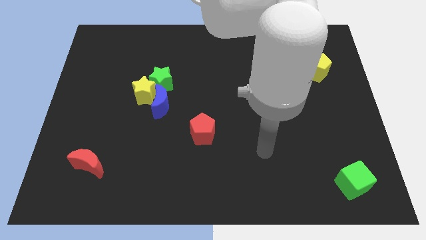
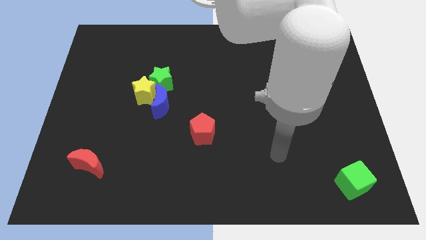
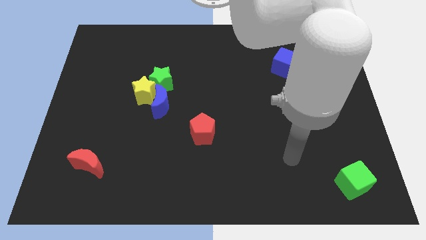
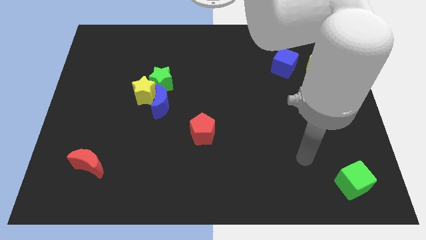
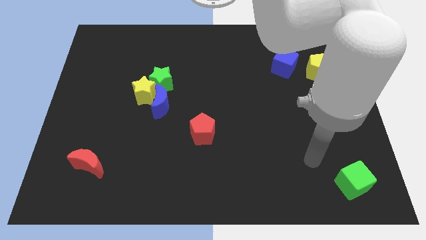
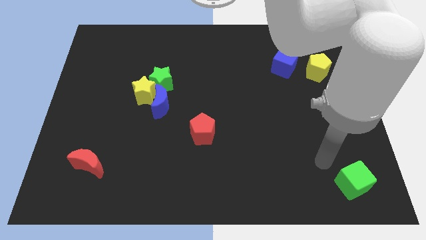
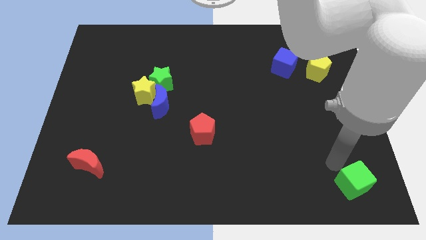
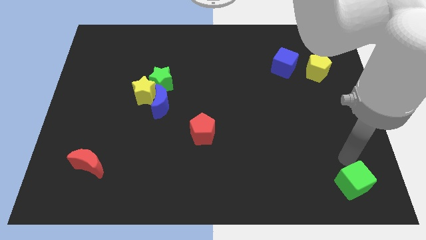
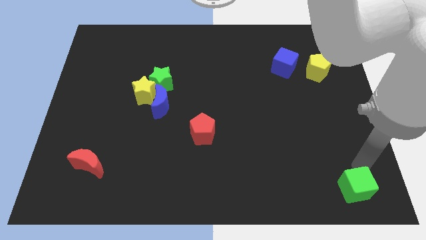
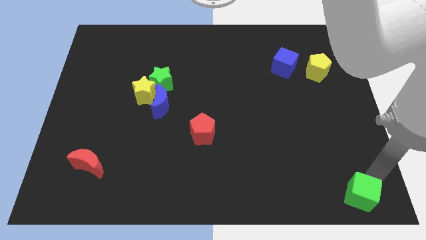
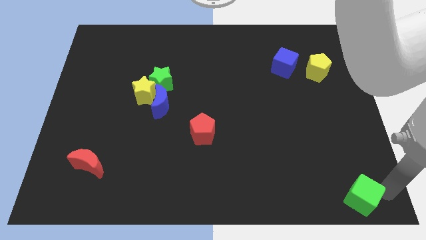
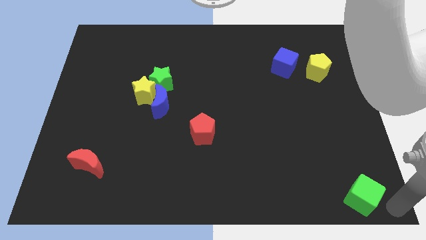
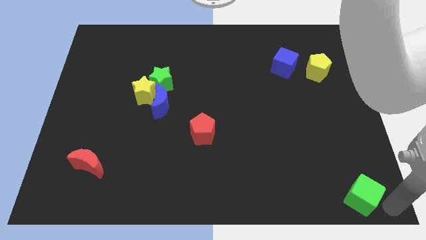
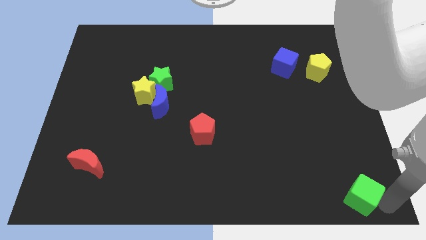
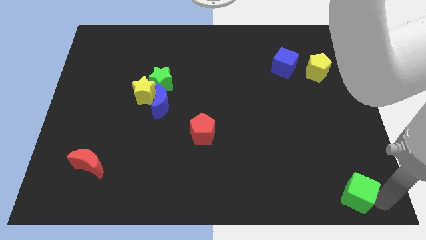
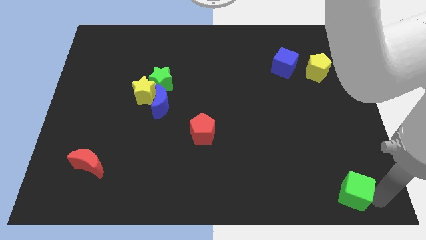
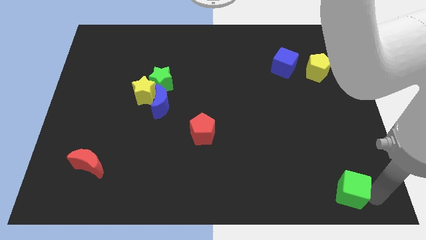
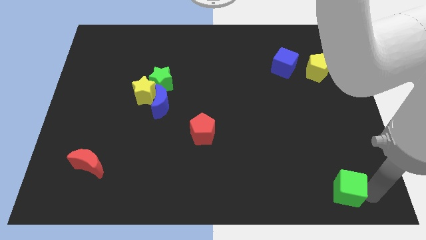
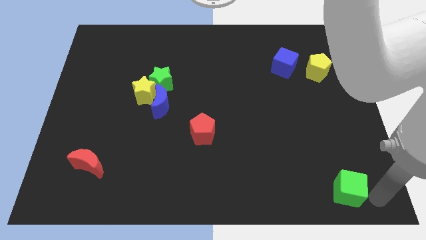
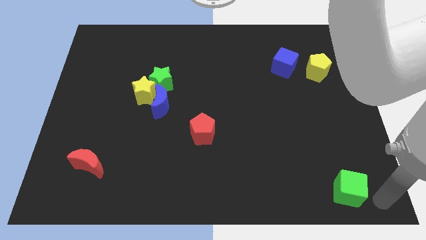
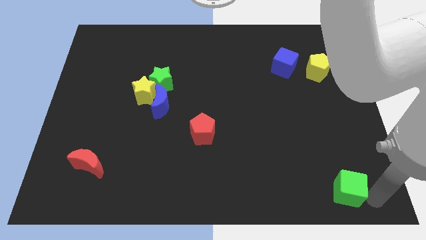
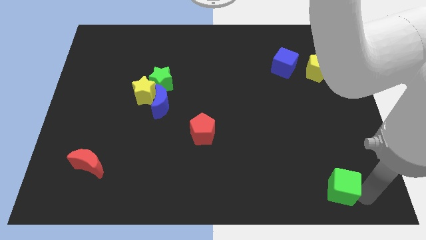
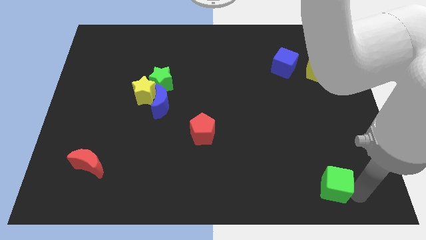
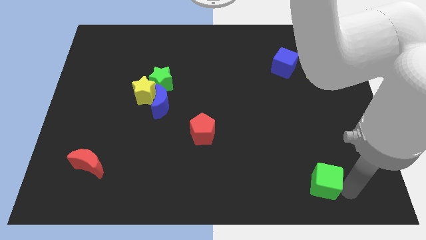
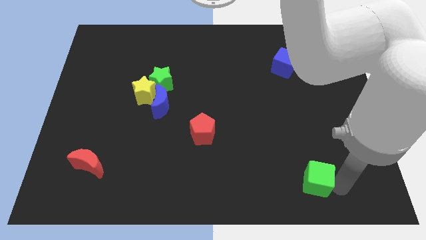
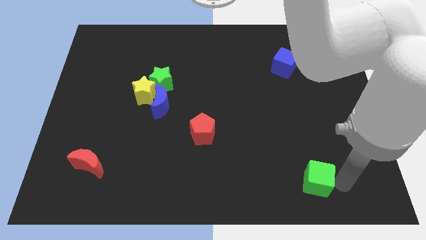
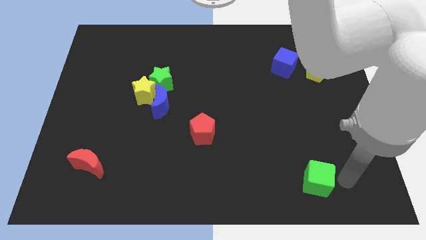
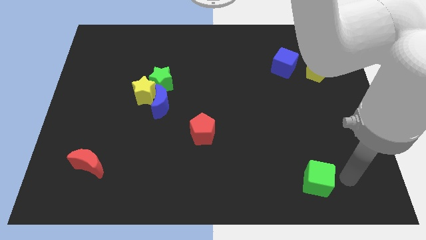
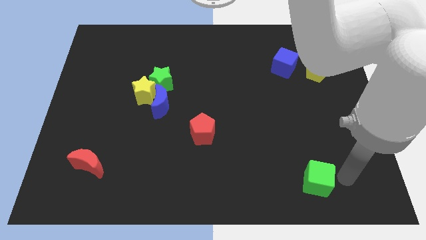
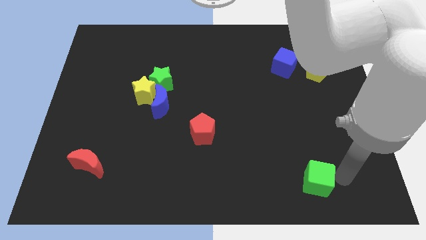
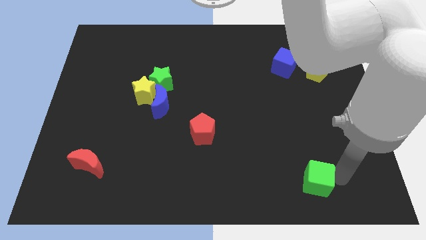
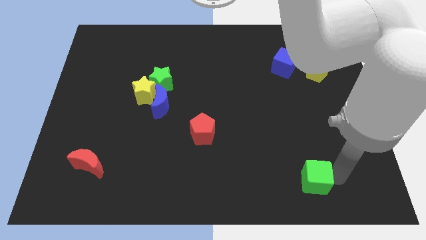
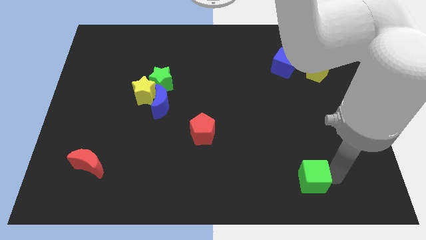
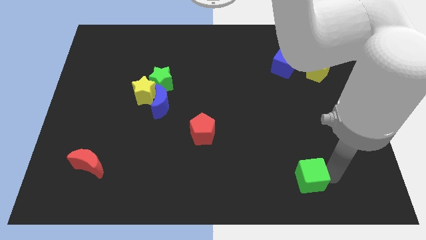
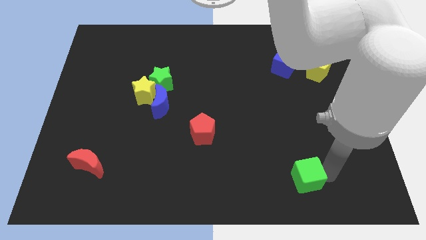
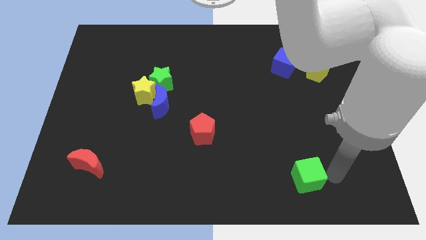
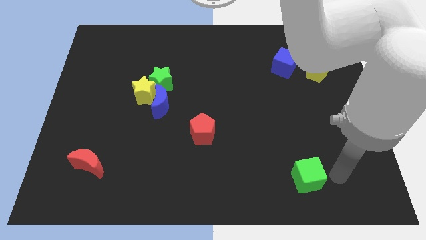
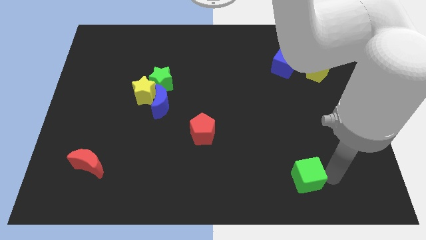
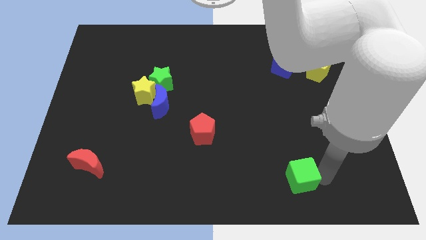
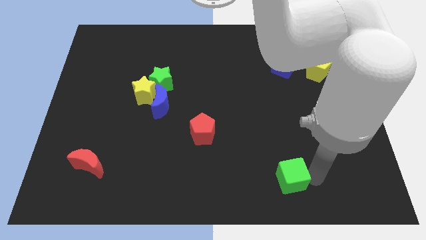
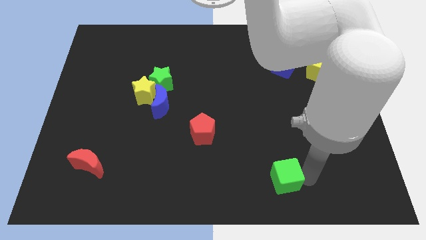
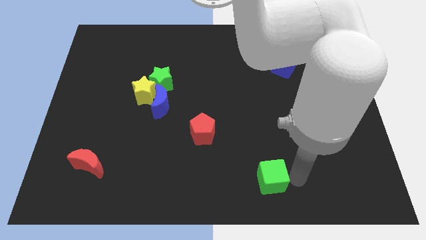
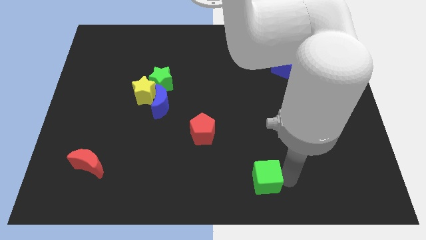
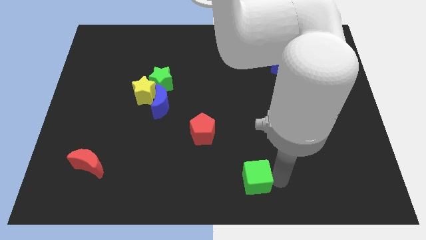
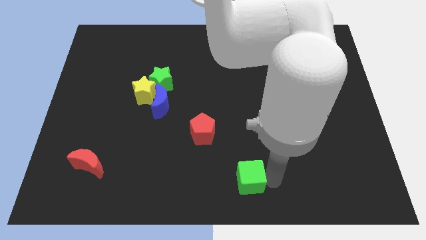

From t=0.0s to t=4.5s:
slide the green cube to the left

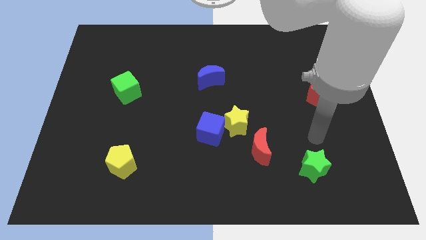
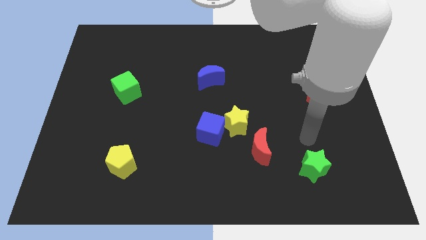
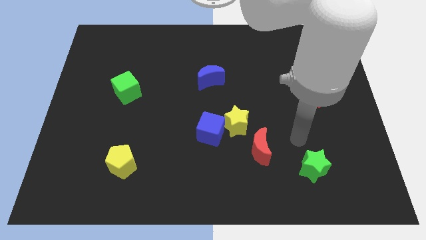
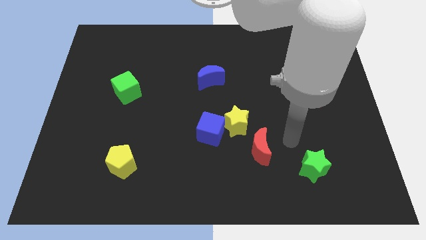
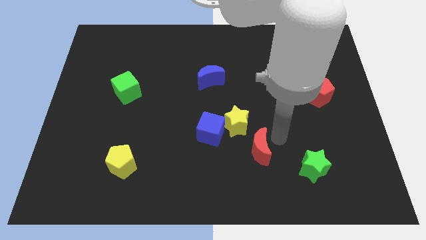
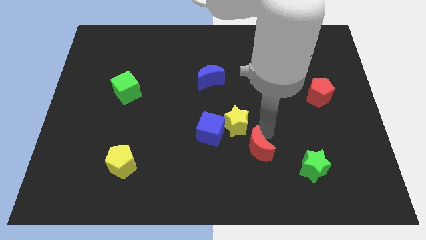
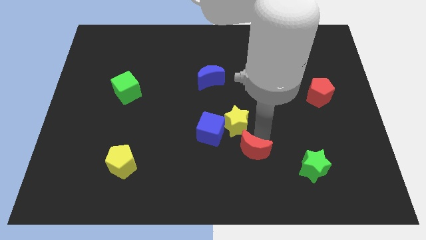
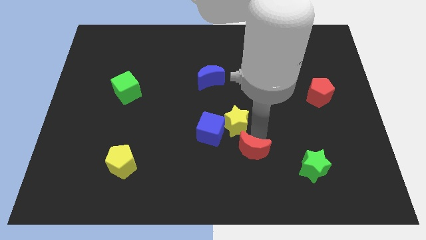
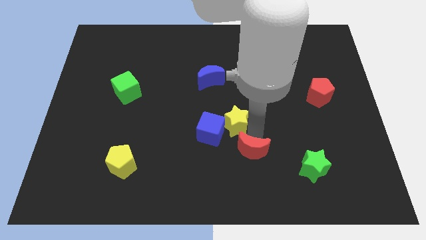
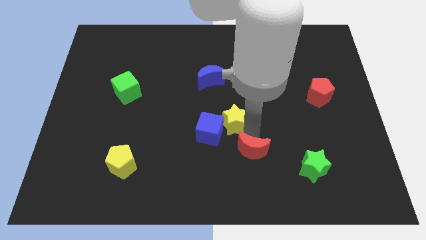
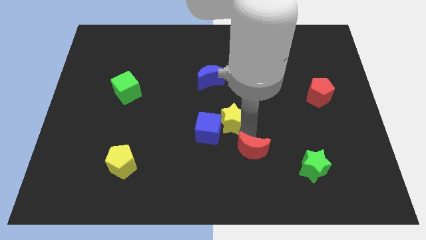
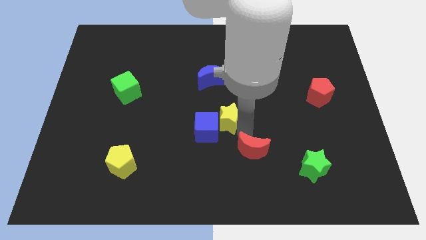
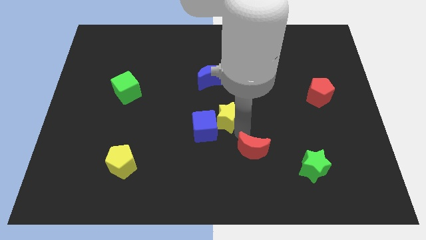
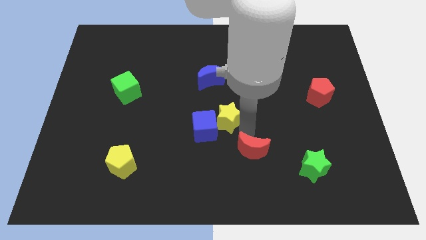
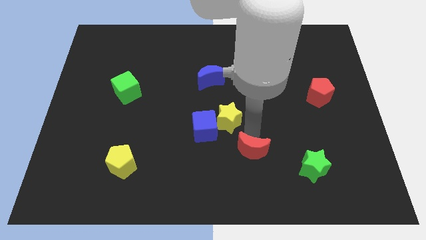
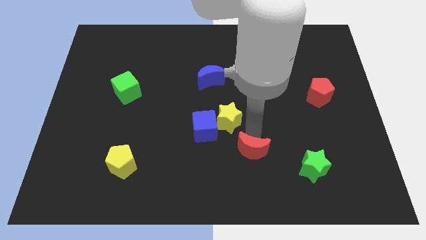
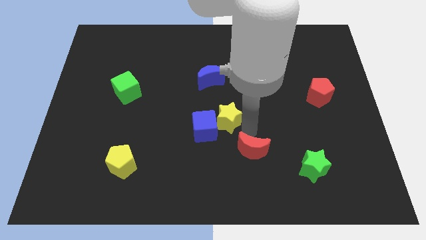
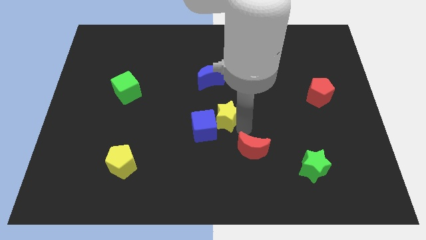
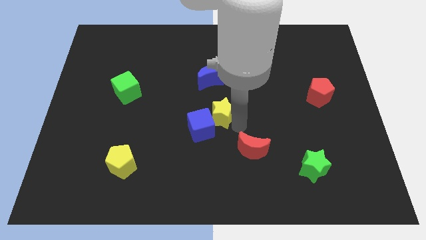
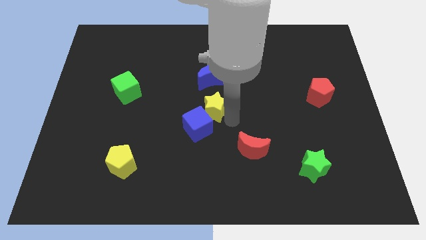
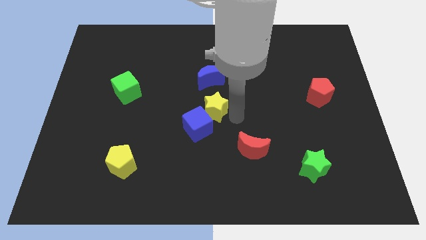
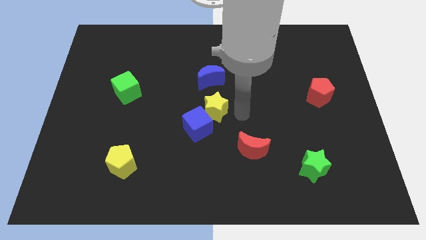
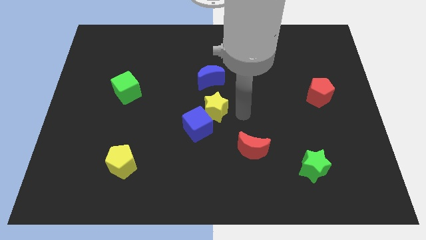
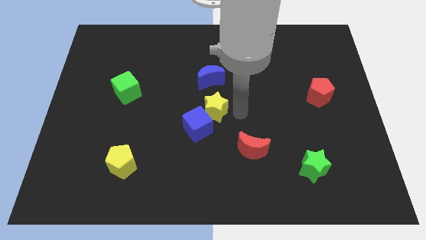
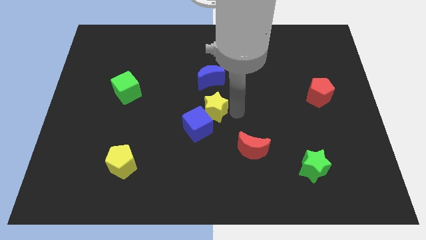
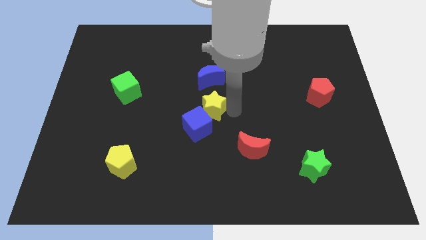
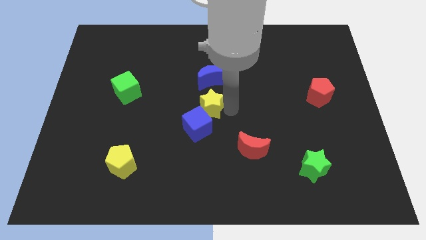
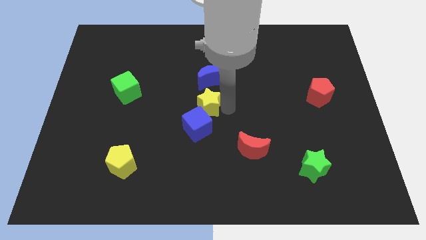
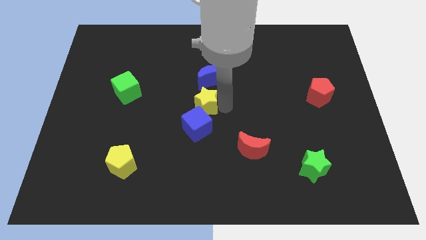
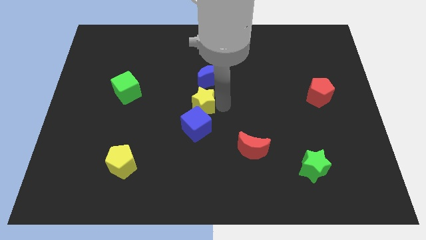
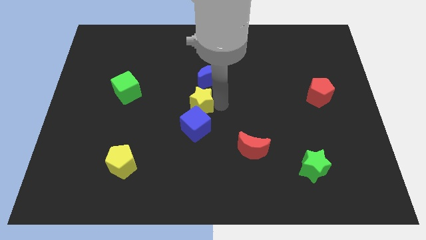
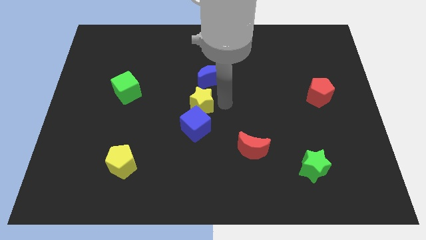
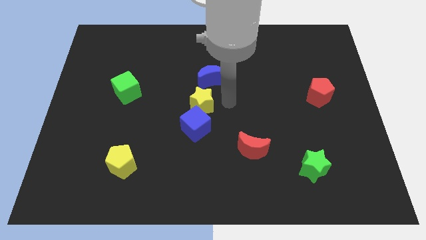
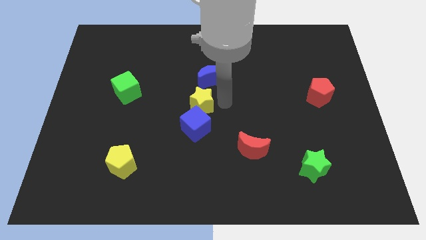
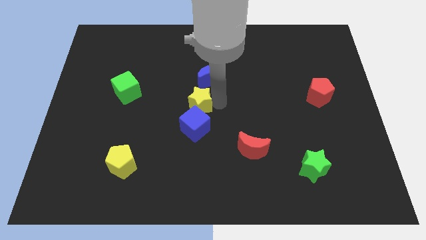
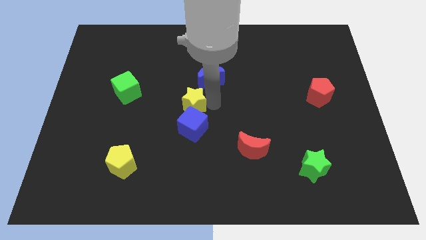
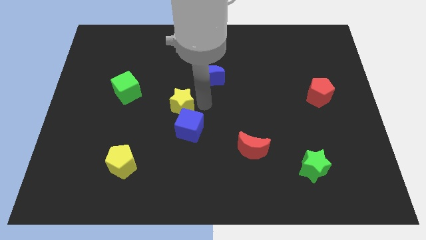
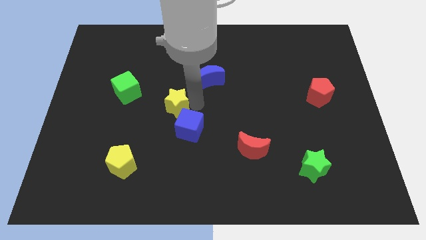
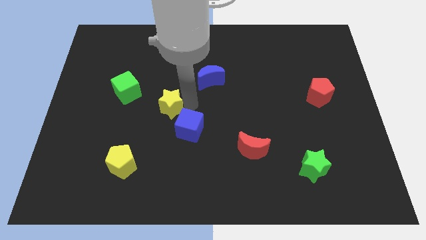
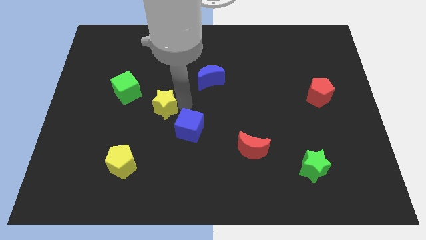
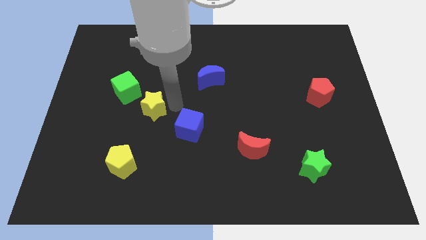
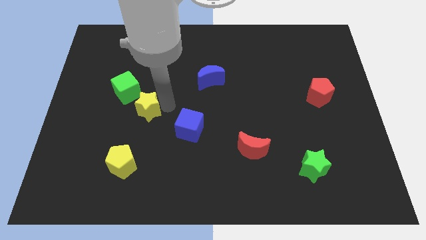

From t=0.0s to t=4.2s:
move the yellow star left
